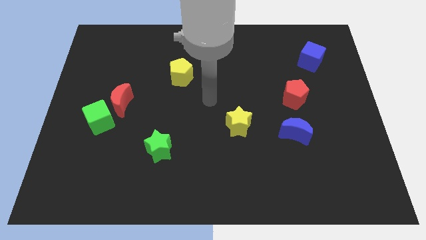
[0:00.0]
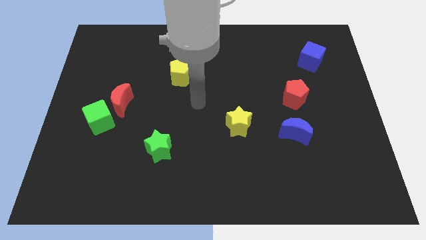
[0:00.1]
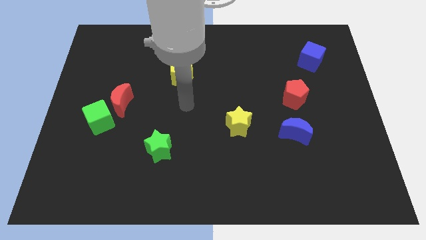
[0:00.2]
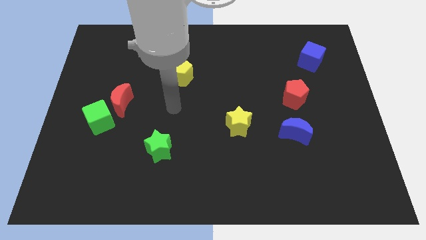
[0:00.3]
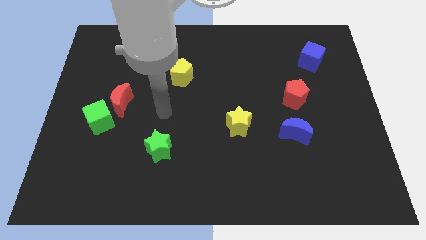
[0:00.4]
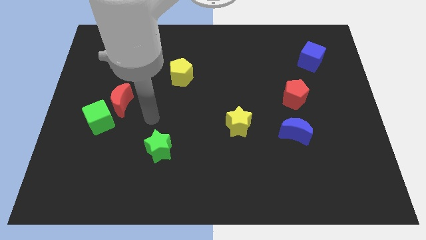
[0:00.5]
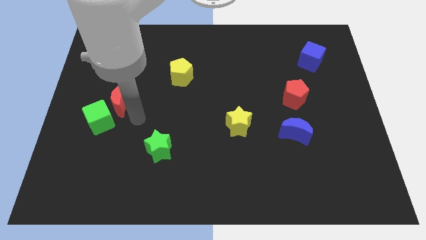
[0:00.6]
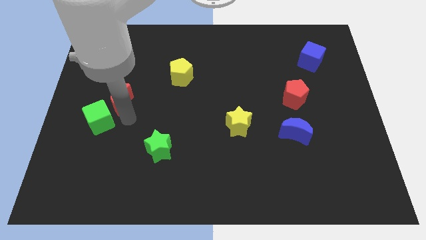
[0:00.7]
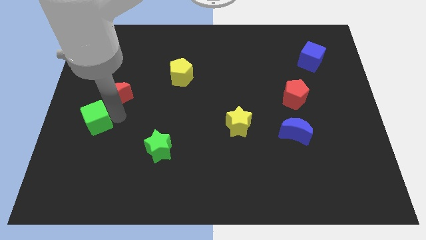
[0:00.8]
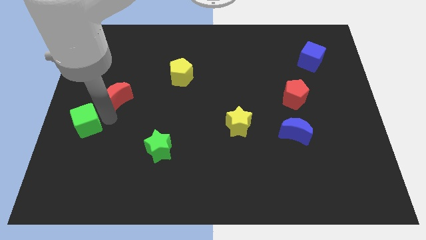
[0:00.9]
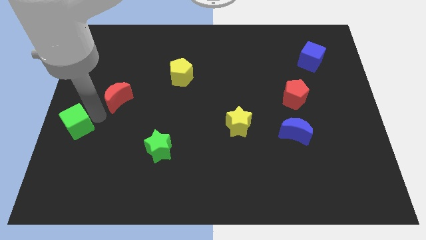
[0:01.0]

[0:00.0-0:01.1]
move the red moon away from the green cube

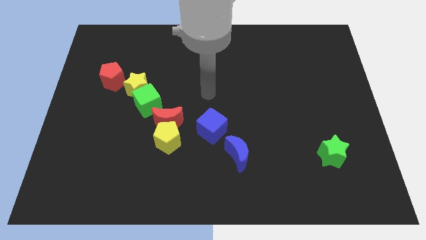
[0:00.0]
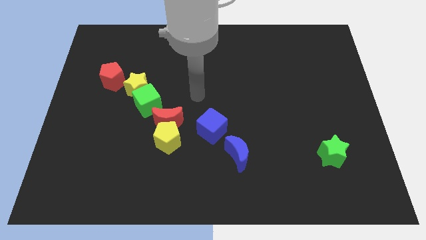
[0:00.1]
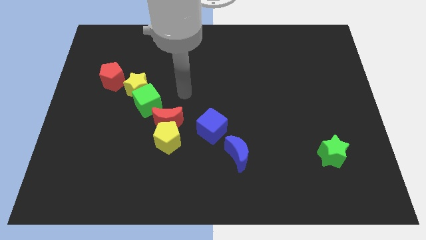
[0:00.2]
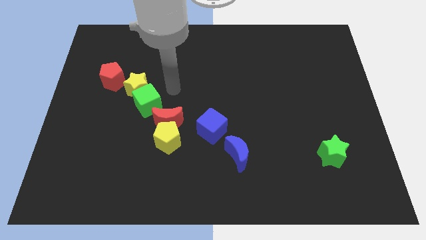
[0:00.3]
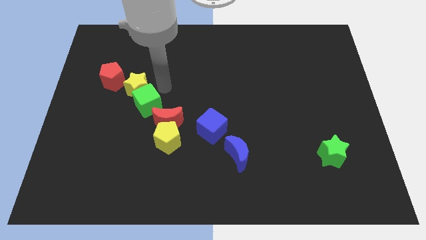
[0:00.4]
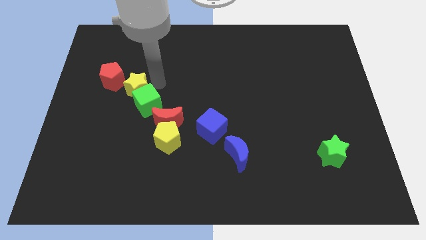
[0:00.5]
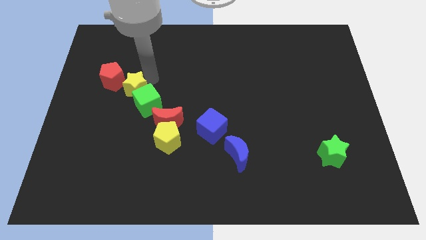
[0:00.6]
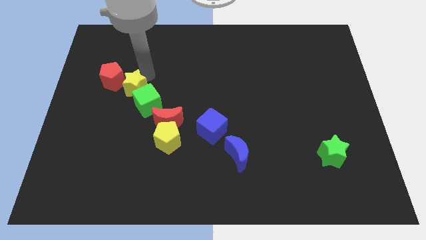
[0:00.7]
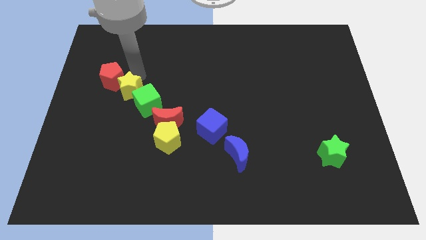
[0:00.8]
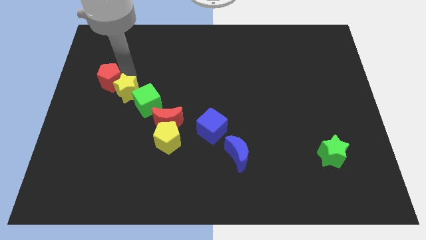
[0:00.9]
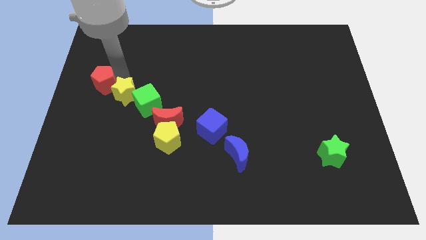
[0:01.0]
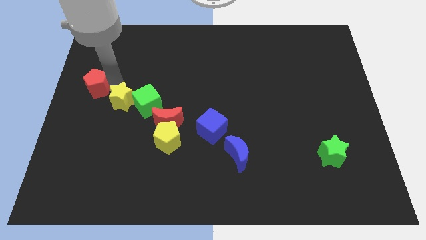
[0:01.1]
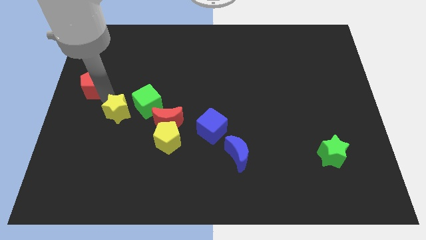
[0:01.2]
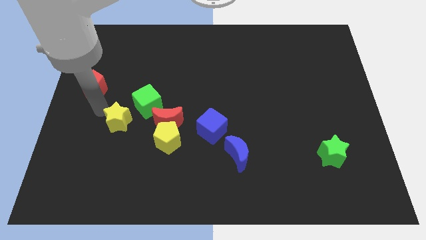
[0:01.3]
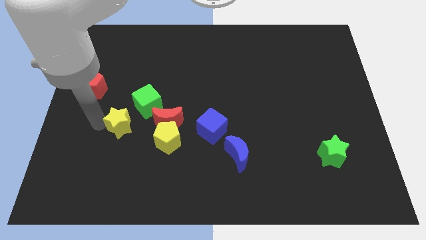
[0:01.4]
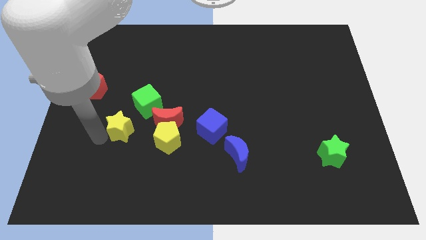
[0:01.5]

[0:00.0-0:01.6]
pull the yellow star apart from the green cube and red pentagon

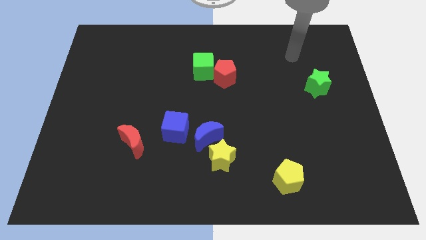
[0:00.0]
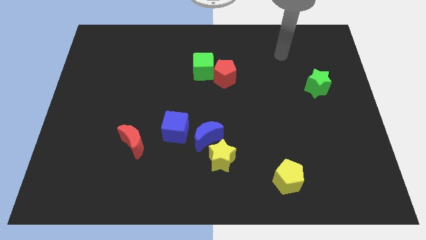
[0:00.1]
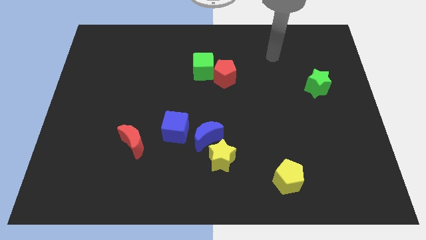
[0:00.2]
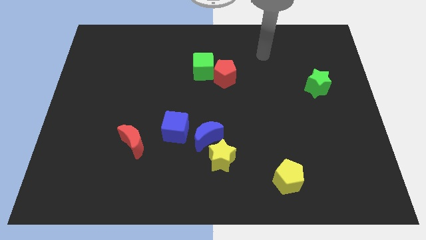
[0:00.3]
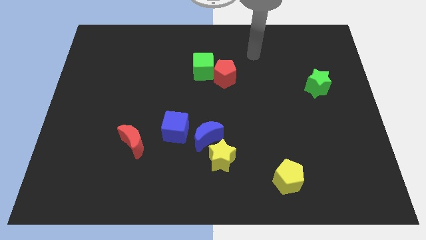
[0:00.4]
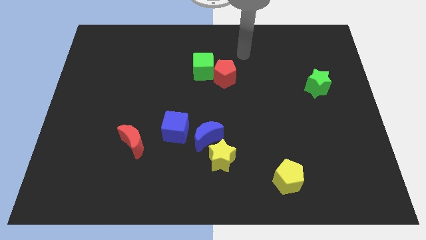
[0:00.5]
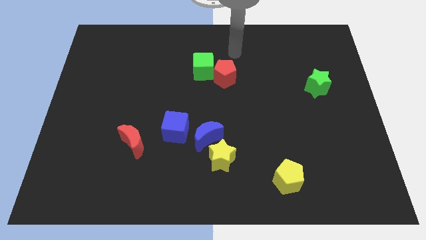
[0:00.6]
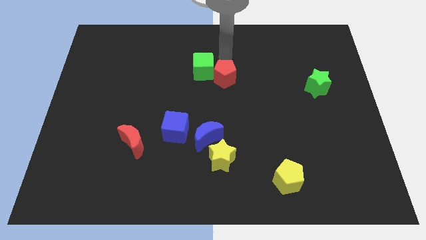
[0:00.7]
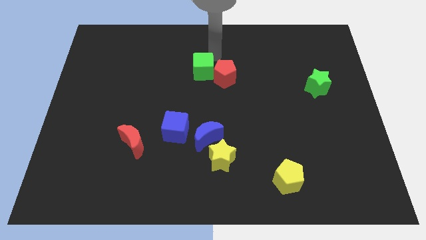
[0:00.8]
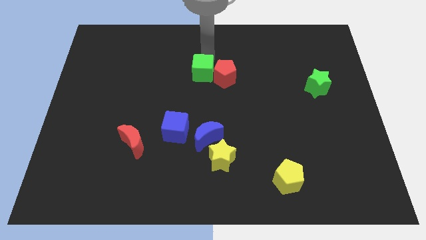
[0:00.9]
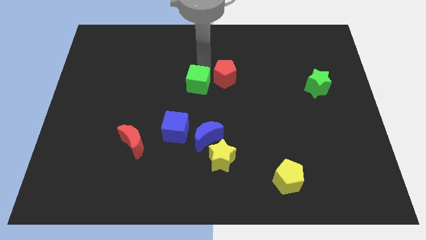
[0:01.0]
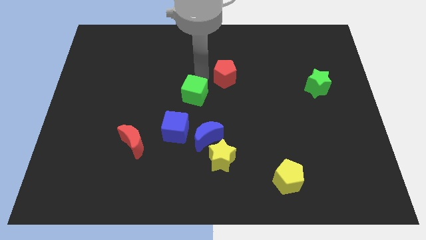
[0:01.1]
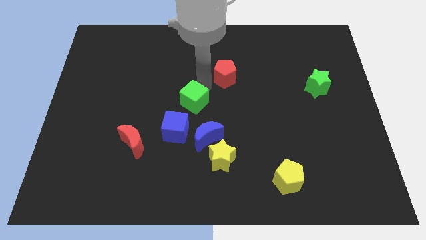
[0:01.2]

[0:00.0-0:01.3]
separate the red pentagon from the green cube

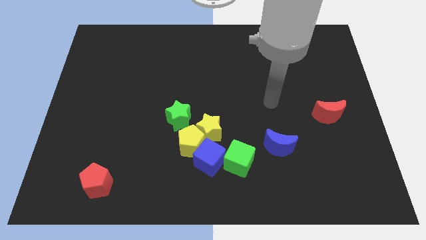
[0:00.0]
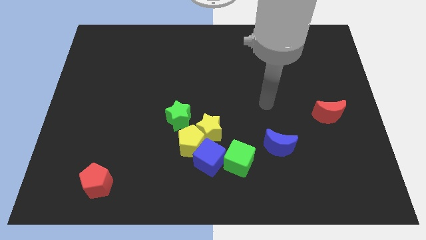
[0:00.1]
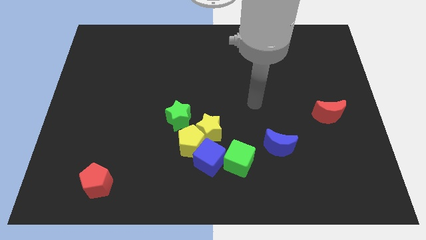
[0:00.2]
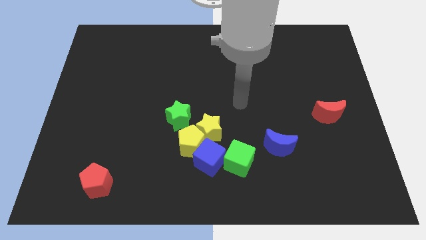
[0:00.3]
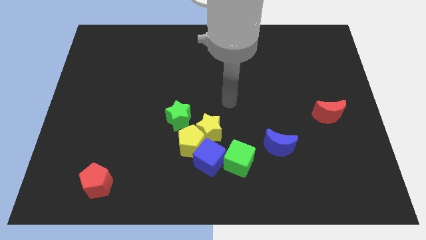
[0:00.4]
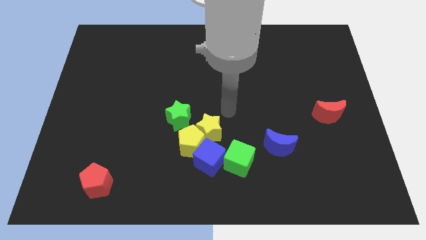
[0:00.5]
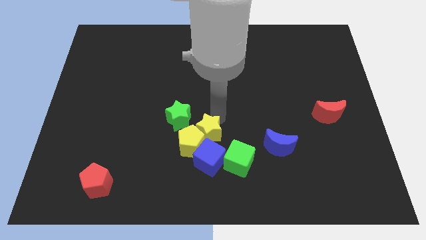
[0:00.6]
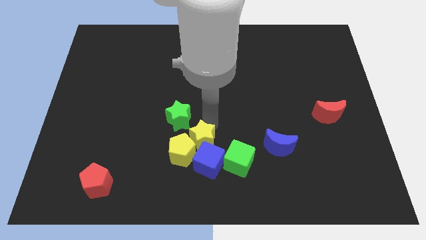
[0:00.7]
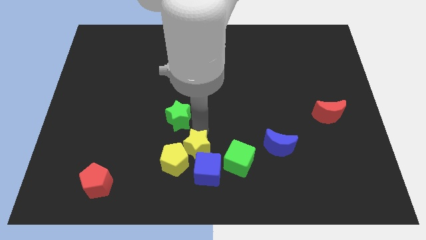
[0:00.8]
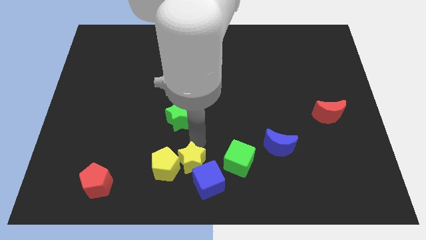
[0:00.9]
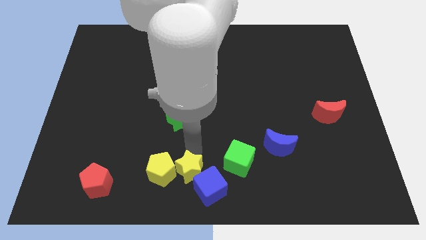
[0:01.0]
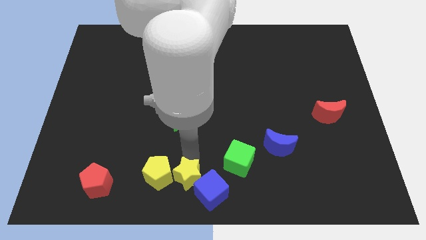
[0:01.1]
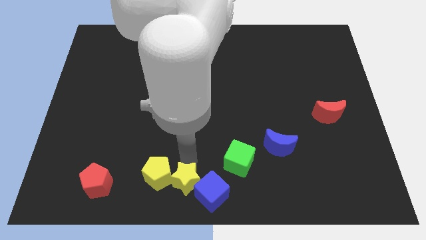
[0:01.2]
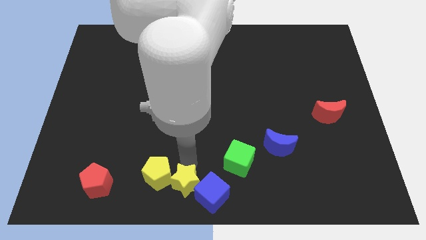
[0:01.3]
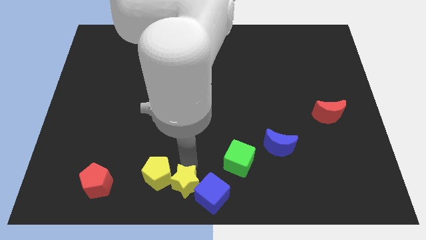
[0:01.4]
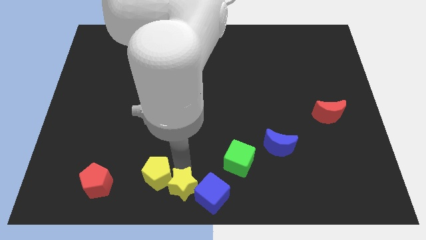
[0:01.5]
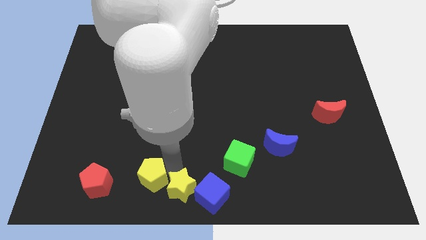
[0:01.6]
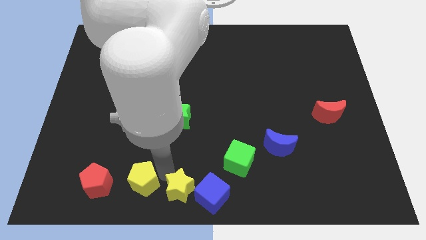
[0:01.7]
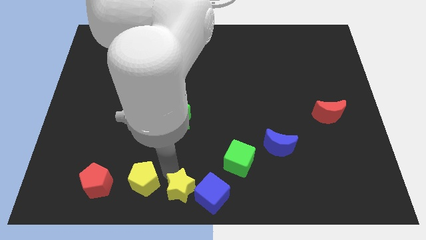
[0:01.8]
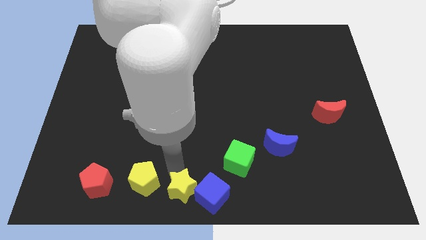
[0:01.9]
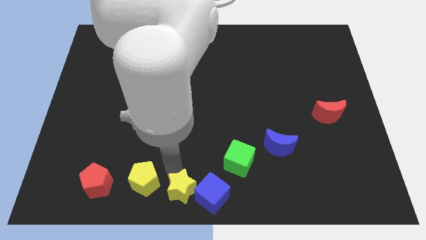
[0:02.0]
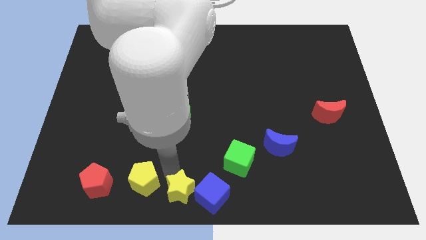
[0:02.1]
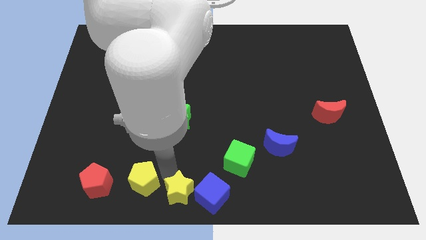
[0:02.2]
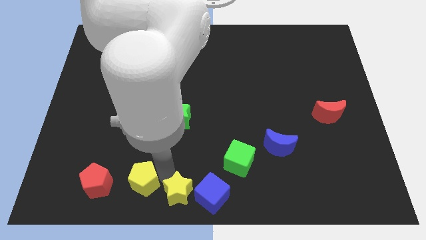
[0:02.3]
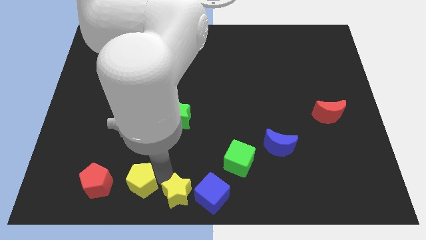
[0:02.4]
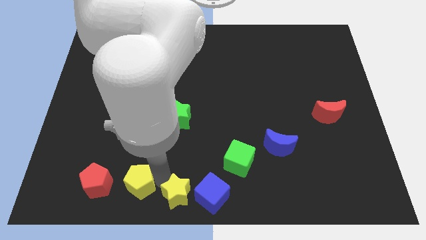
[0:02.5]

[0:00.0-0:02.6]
move the yellow pentagon away from the yellow star, blue cube, and green star

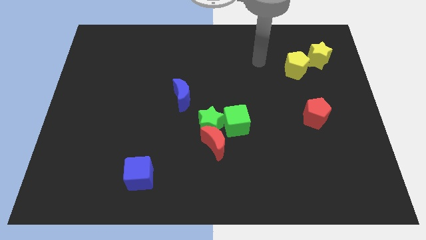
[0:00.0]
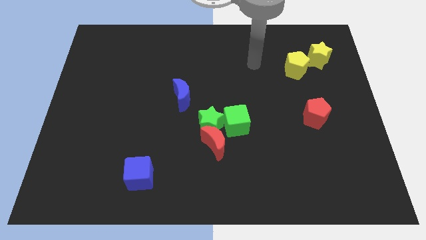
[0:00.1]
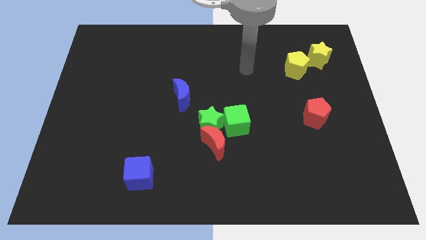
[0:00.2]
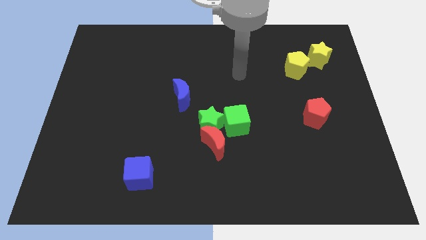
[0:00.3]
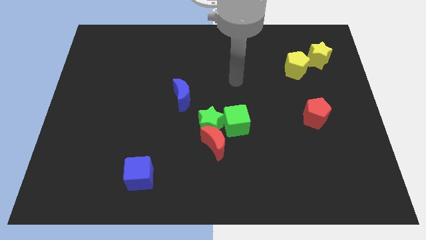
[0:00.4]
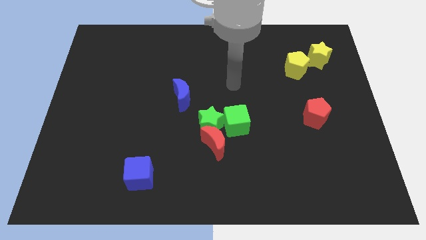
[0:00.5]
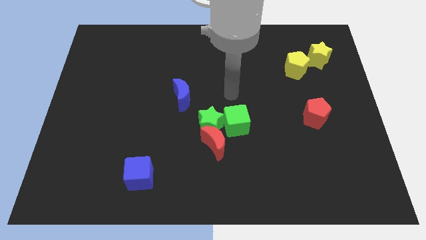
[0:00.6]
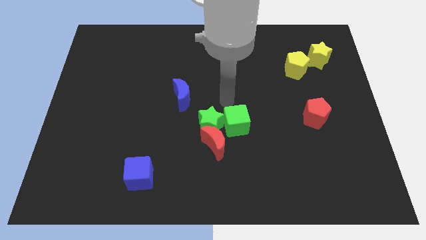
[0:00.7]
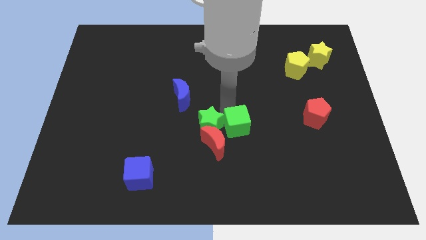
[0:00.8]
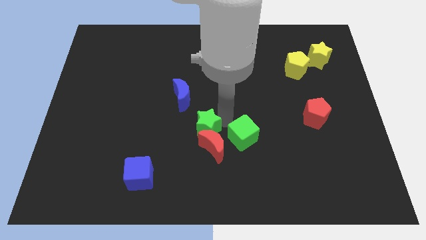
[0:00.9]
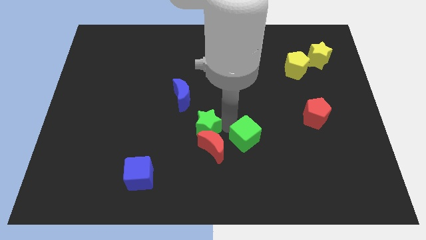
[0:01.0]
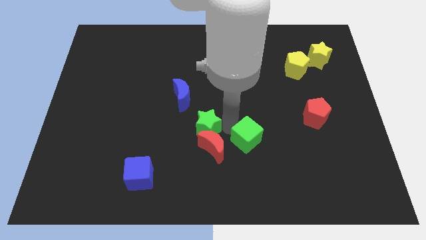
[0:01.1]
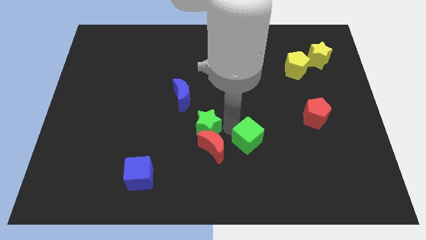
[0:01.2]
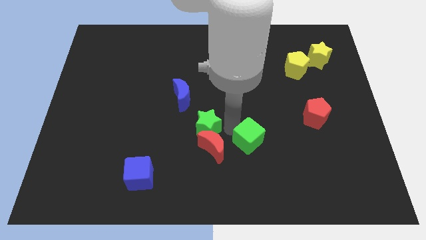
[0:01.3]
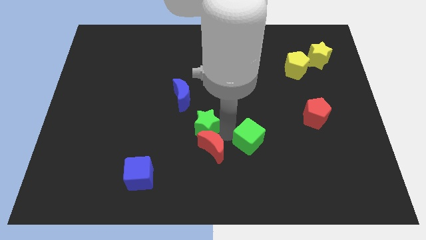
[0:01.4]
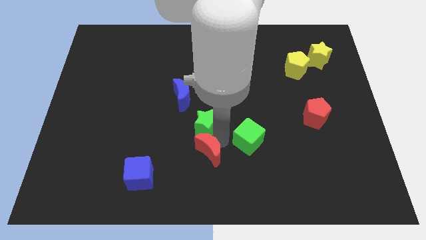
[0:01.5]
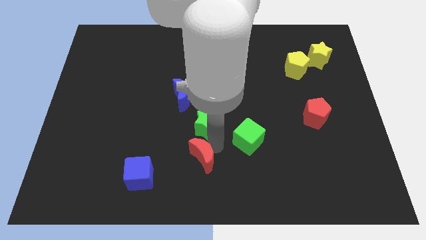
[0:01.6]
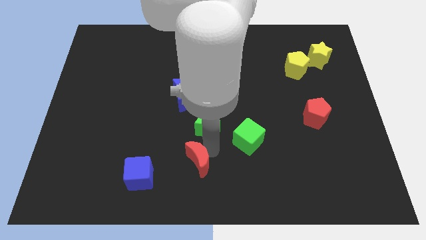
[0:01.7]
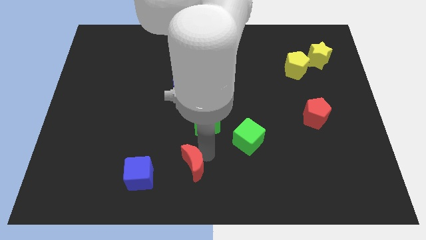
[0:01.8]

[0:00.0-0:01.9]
move the red moon away from the green star and green cube

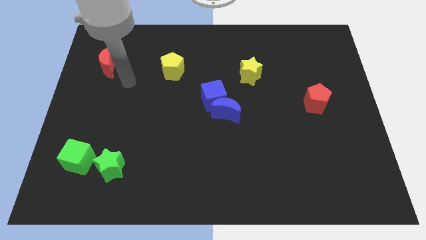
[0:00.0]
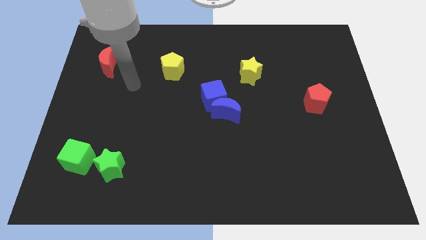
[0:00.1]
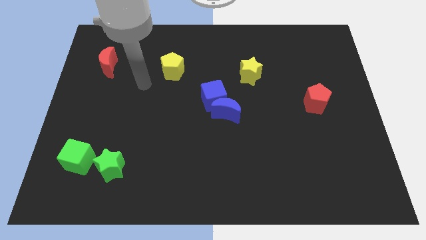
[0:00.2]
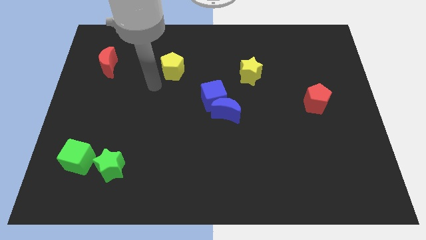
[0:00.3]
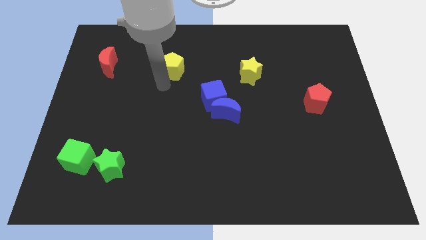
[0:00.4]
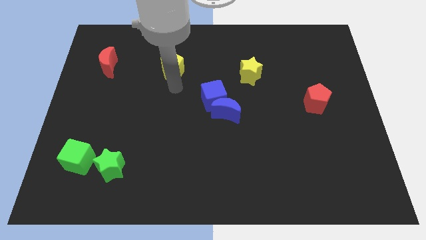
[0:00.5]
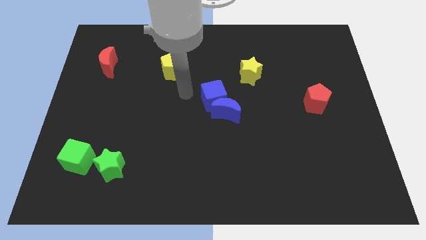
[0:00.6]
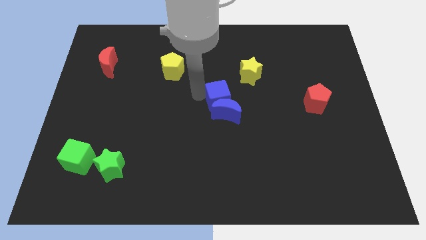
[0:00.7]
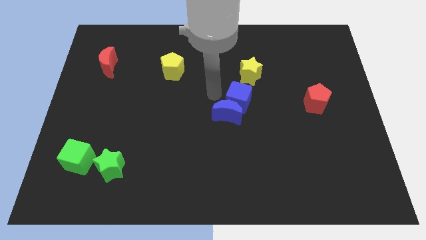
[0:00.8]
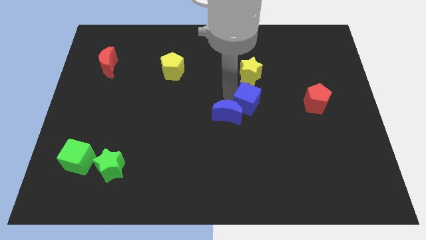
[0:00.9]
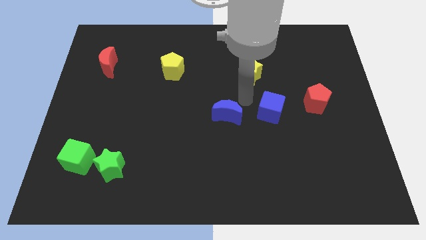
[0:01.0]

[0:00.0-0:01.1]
pull the blue moon apart from the blue cube
